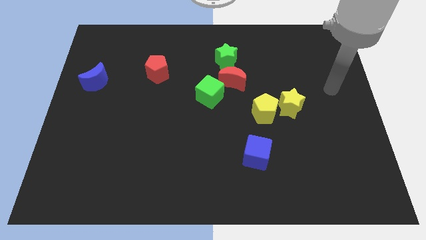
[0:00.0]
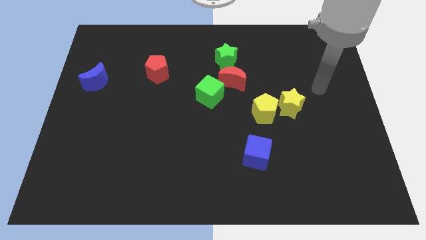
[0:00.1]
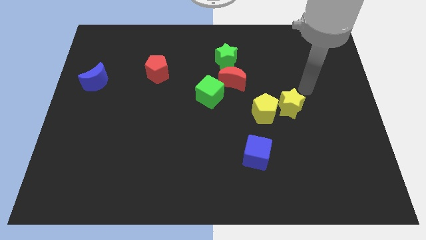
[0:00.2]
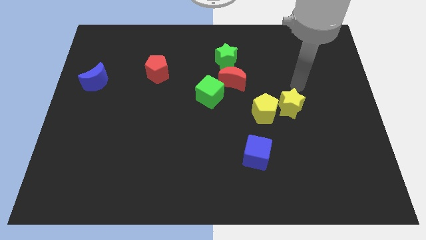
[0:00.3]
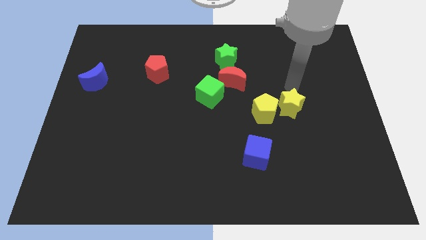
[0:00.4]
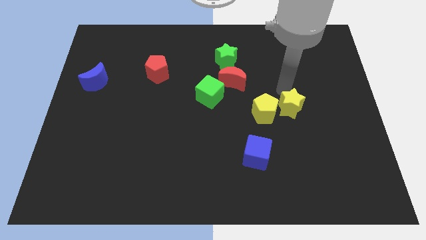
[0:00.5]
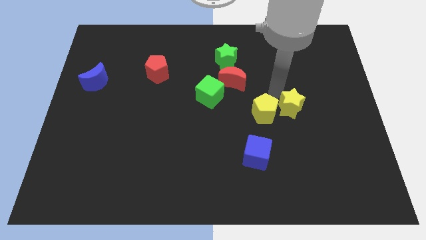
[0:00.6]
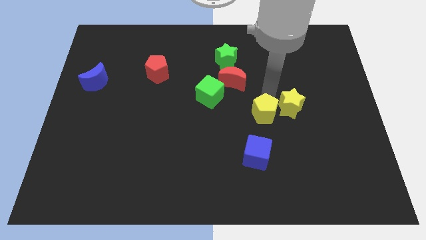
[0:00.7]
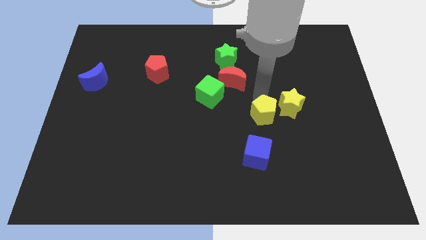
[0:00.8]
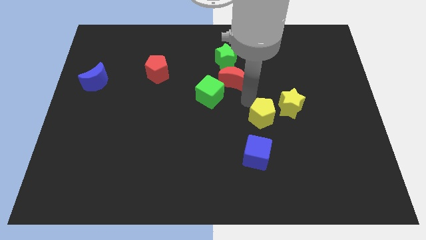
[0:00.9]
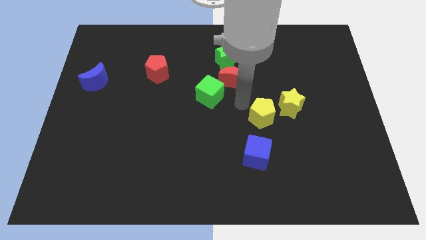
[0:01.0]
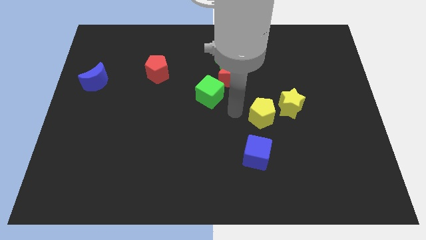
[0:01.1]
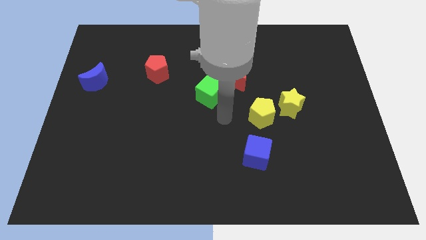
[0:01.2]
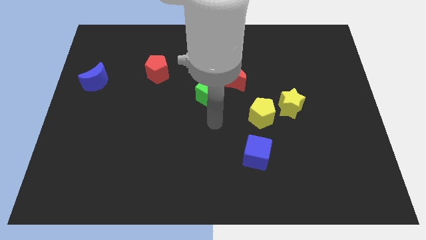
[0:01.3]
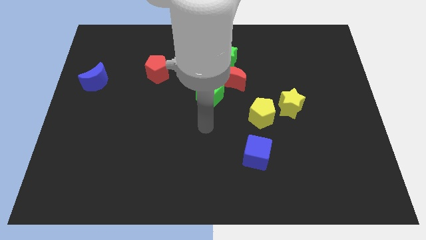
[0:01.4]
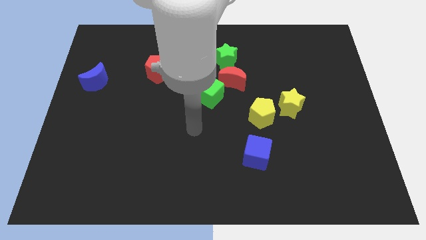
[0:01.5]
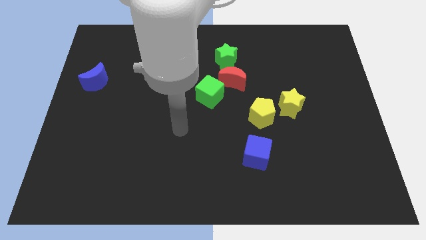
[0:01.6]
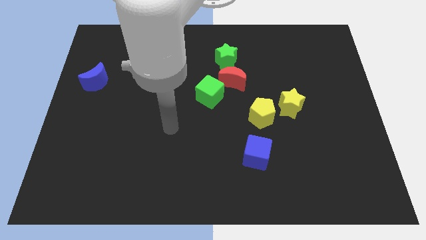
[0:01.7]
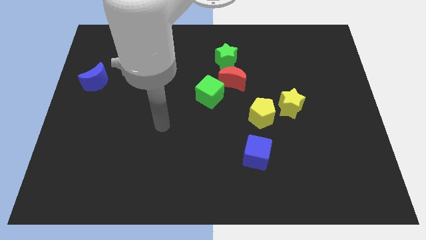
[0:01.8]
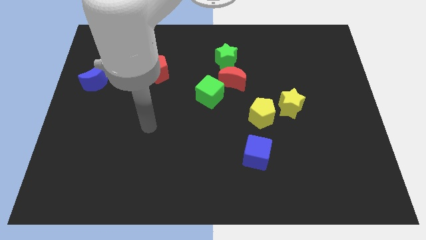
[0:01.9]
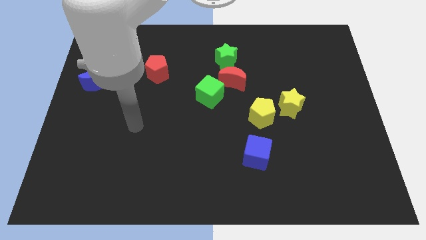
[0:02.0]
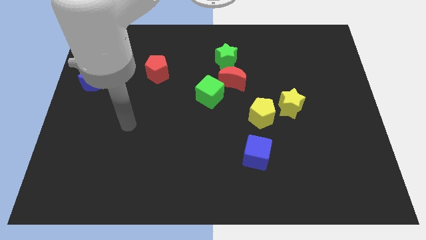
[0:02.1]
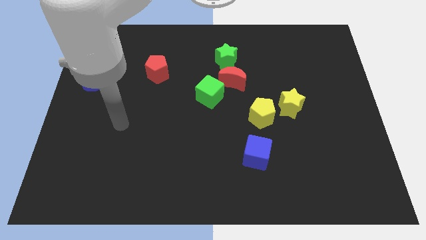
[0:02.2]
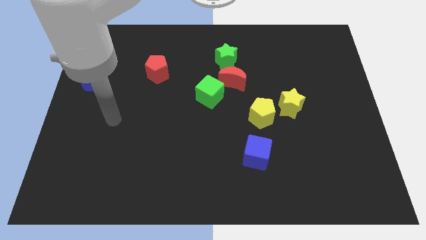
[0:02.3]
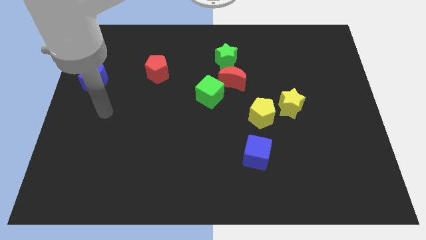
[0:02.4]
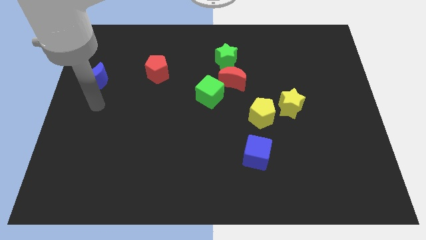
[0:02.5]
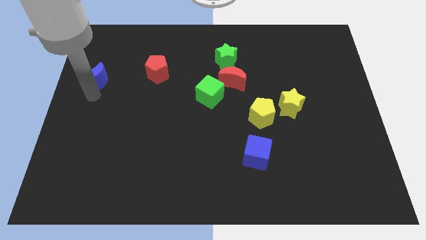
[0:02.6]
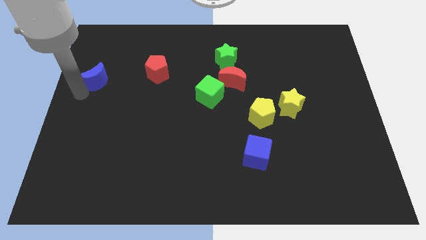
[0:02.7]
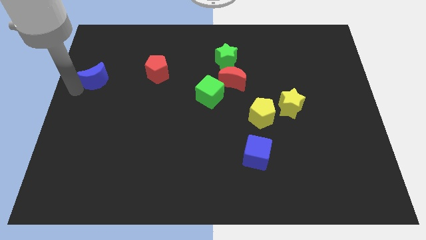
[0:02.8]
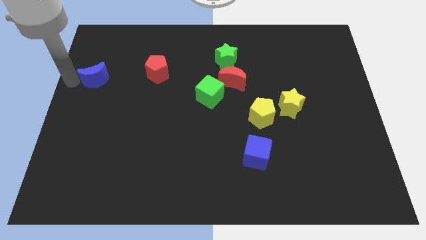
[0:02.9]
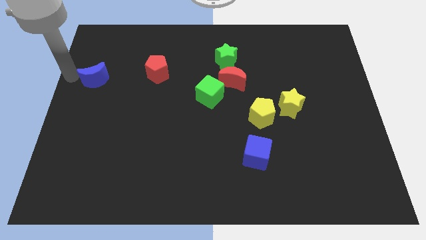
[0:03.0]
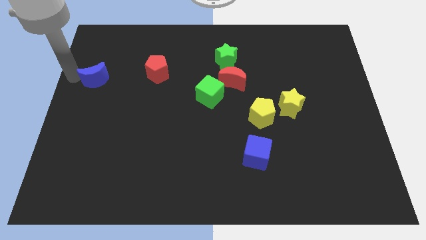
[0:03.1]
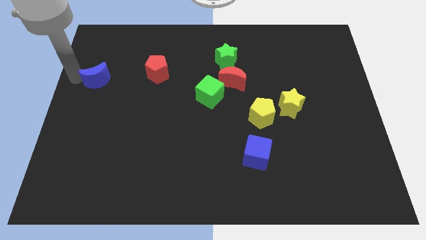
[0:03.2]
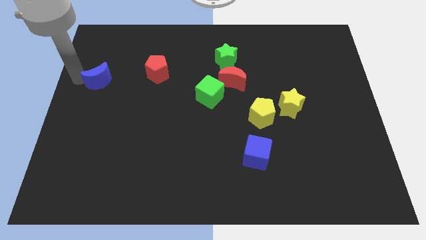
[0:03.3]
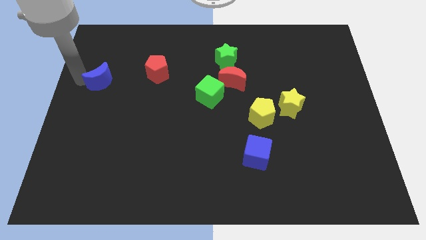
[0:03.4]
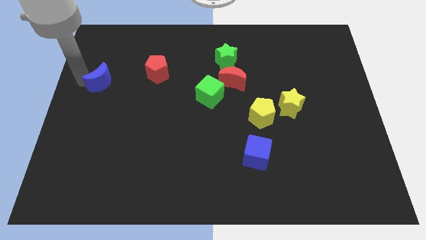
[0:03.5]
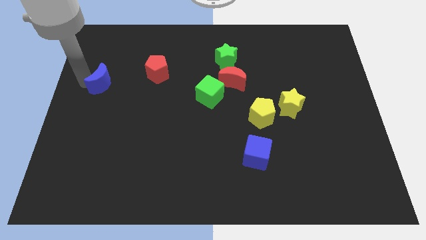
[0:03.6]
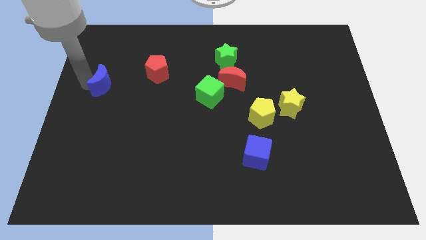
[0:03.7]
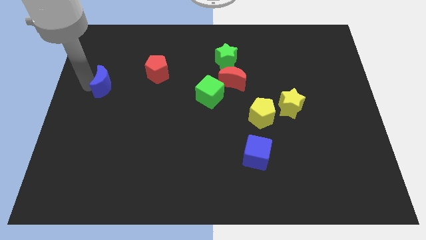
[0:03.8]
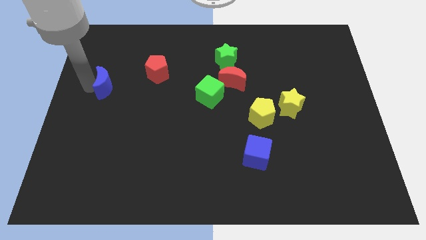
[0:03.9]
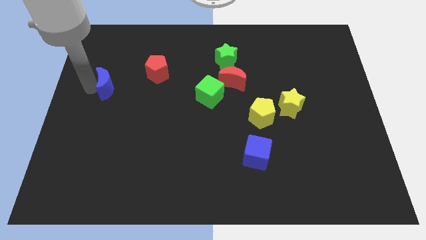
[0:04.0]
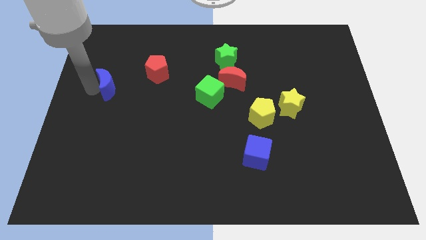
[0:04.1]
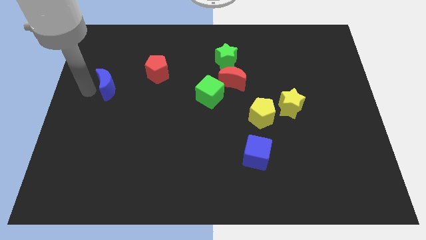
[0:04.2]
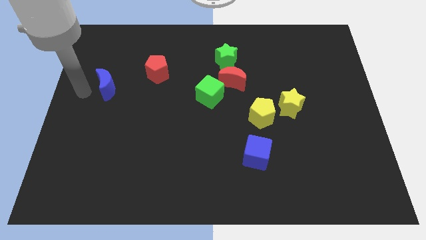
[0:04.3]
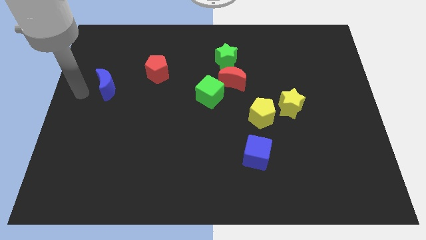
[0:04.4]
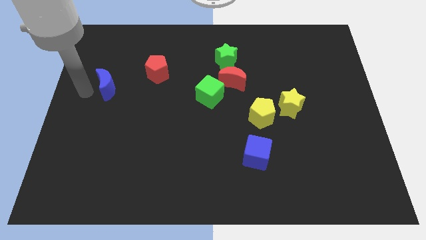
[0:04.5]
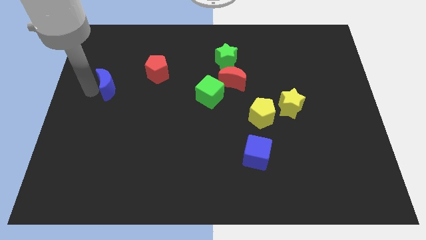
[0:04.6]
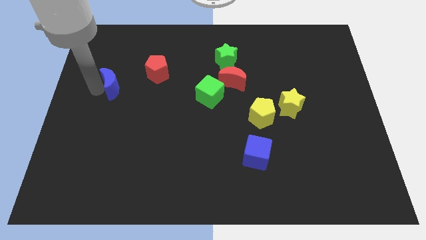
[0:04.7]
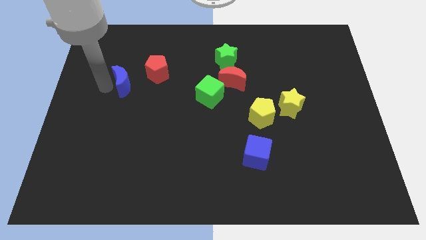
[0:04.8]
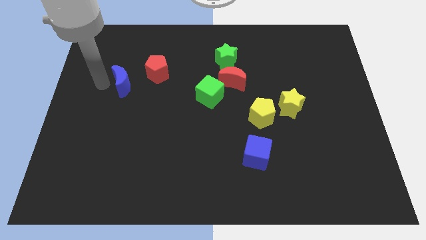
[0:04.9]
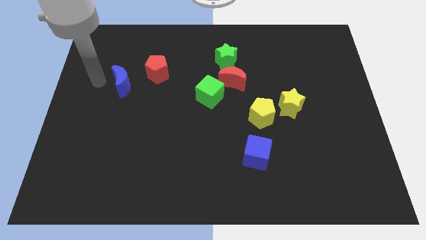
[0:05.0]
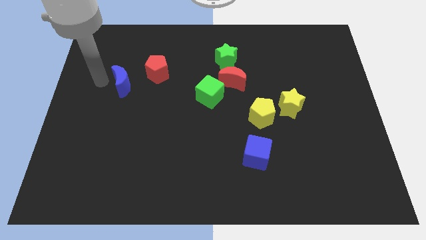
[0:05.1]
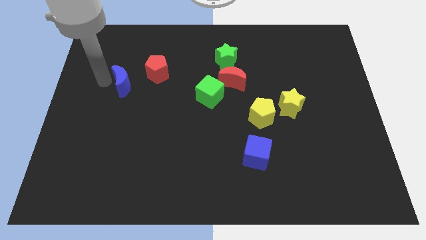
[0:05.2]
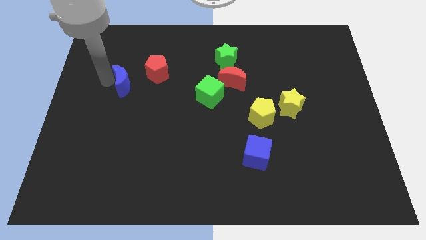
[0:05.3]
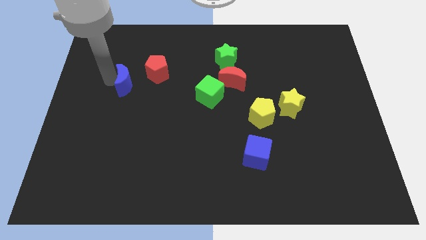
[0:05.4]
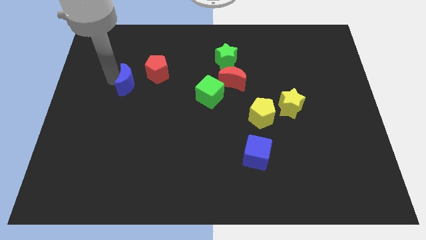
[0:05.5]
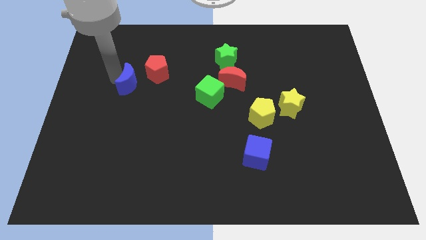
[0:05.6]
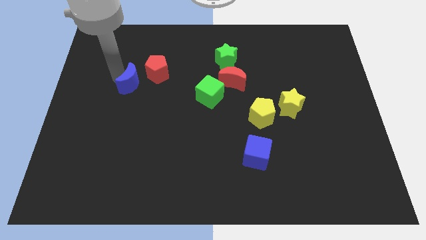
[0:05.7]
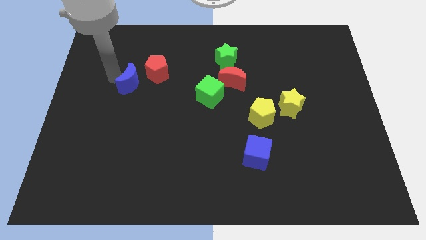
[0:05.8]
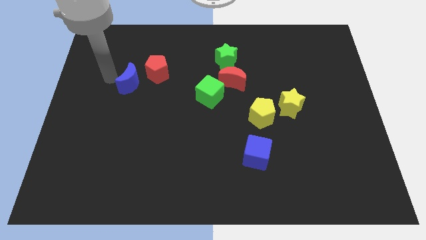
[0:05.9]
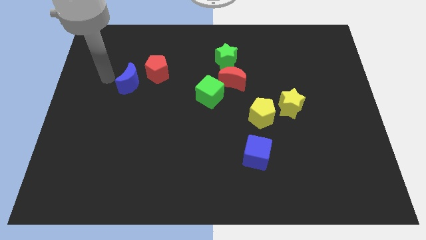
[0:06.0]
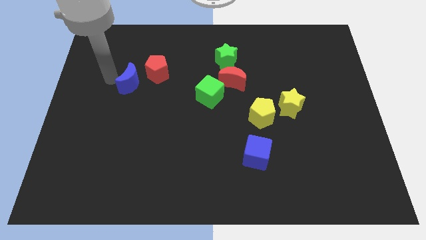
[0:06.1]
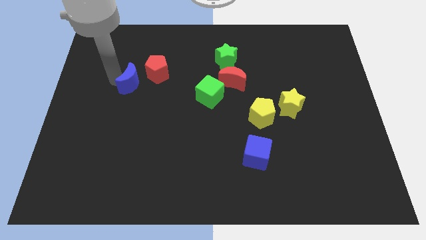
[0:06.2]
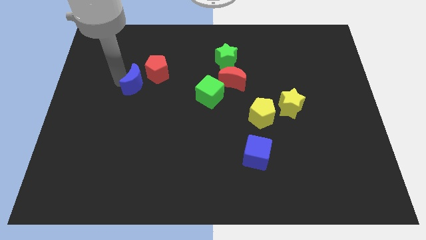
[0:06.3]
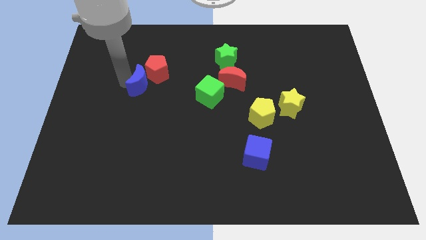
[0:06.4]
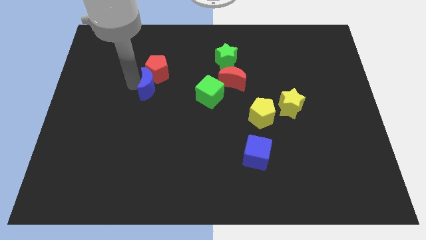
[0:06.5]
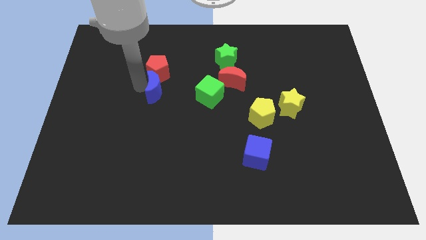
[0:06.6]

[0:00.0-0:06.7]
put the blue moon to the bottom right side of the red pentagon

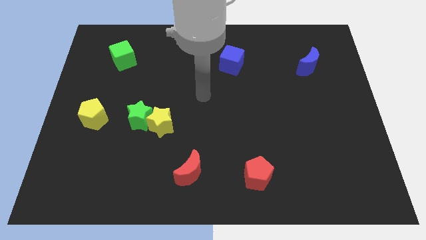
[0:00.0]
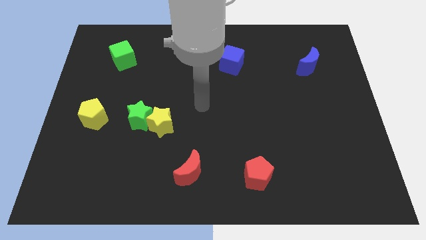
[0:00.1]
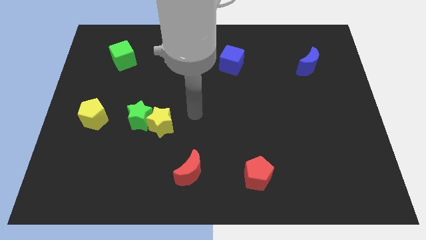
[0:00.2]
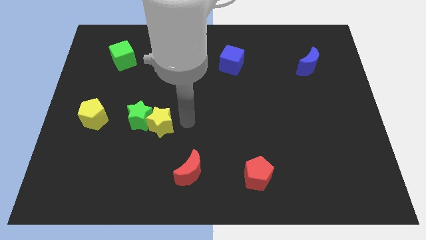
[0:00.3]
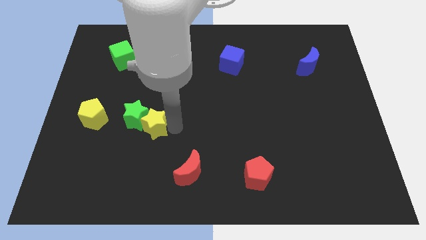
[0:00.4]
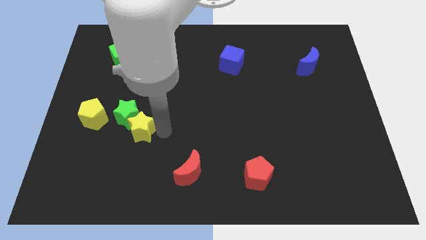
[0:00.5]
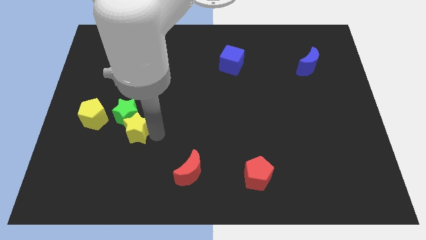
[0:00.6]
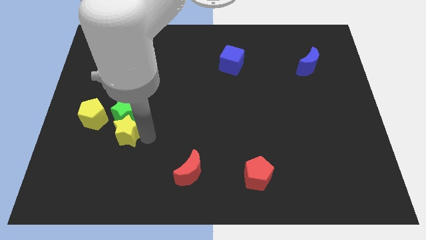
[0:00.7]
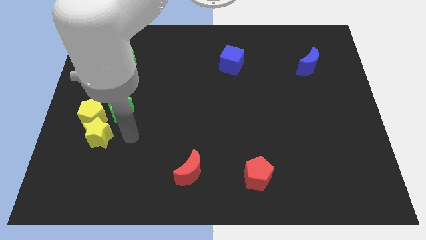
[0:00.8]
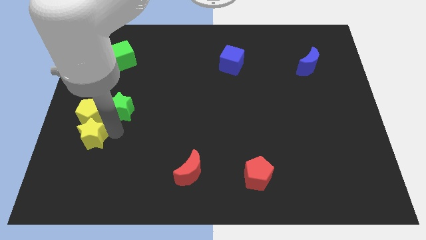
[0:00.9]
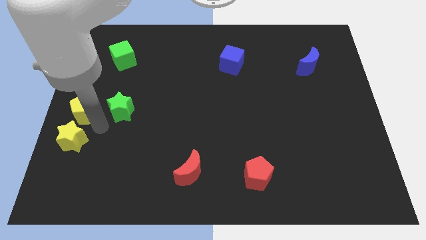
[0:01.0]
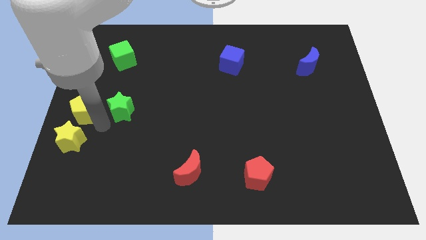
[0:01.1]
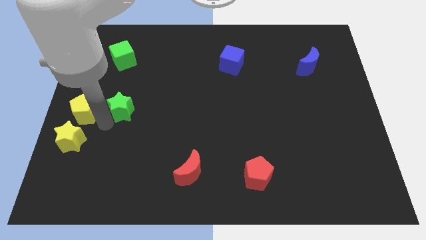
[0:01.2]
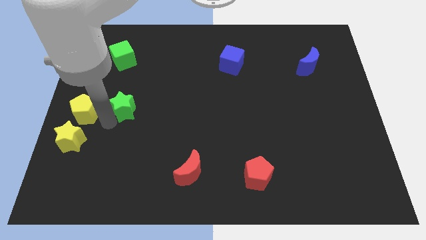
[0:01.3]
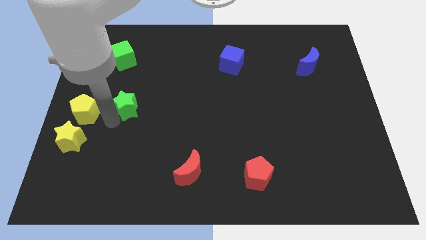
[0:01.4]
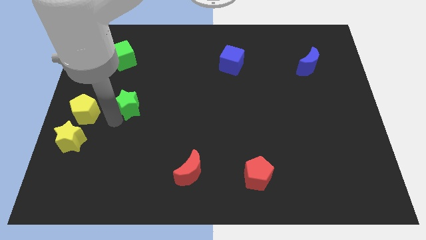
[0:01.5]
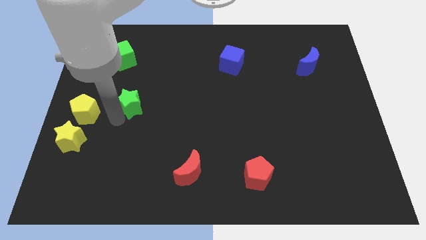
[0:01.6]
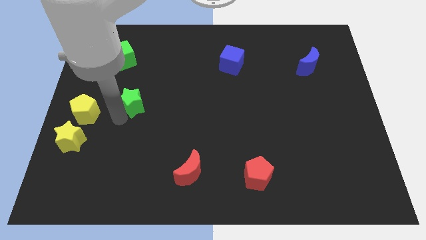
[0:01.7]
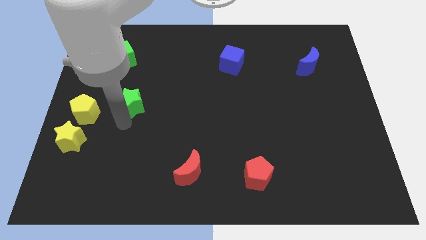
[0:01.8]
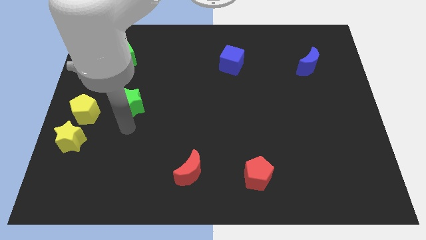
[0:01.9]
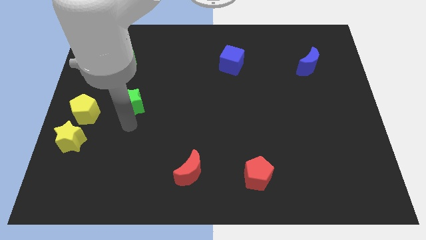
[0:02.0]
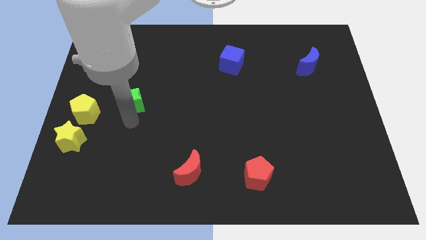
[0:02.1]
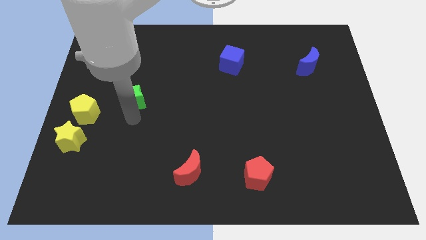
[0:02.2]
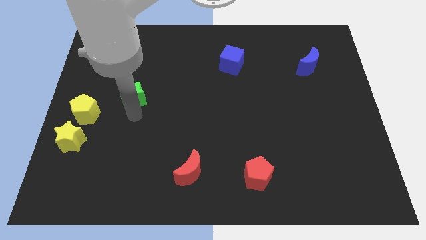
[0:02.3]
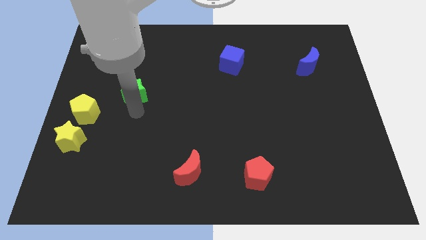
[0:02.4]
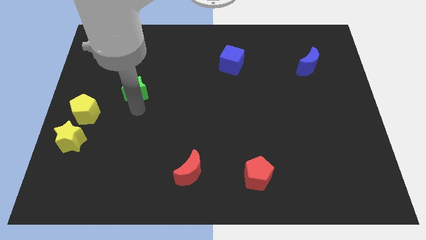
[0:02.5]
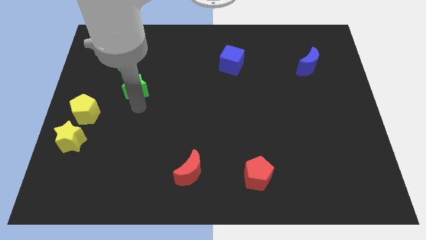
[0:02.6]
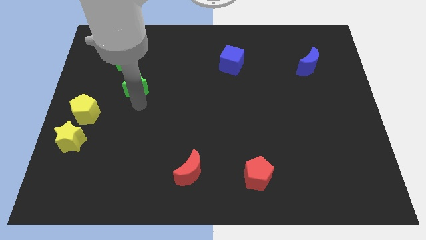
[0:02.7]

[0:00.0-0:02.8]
put the green star diagonally down and to the right of the green cube
